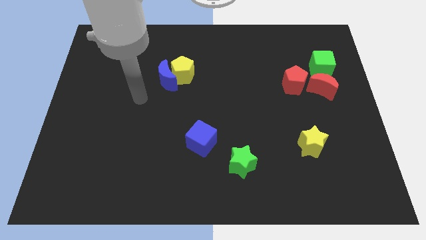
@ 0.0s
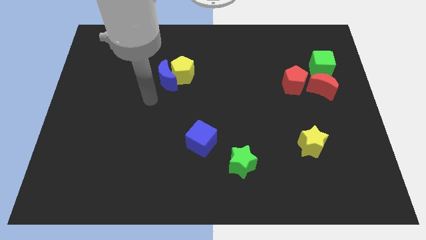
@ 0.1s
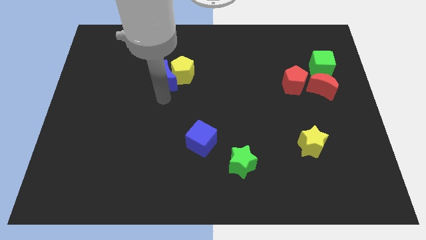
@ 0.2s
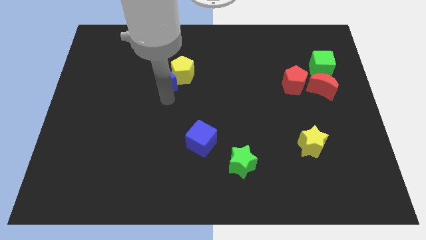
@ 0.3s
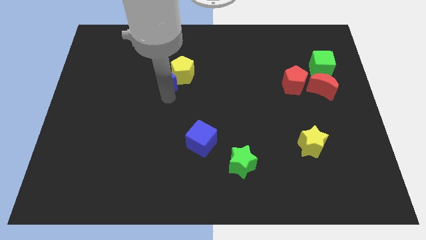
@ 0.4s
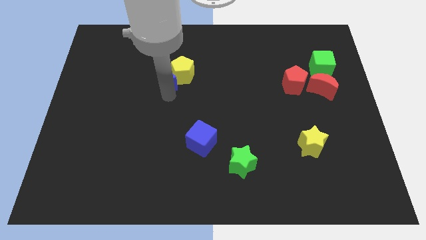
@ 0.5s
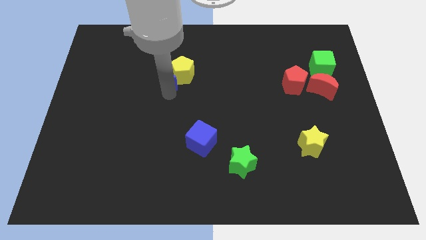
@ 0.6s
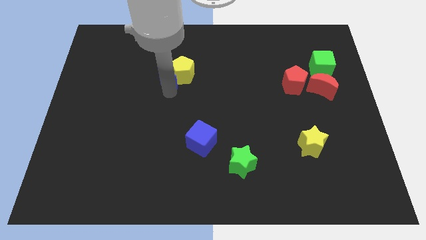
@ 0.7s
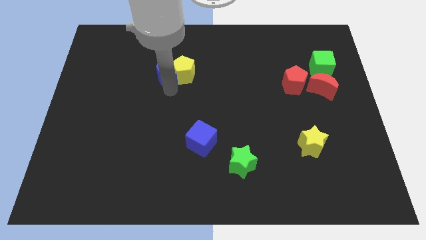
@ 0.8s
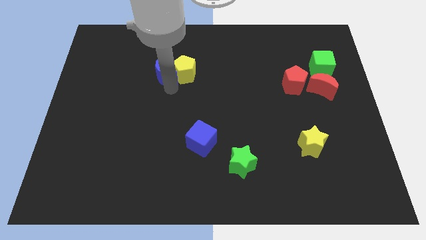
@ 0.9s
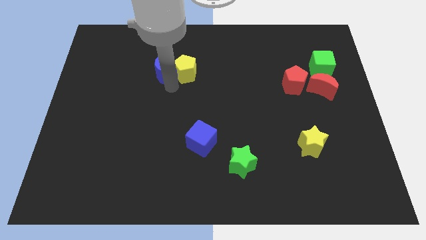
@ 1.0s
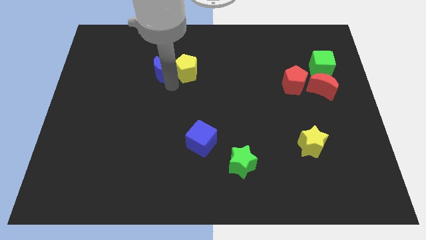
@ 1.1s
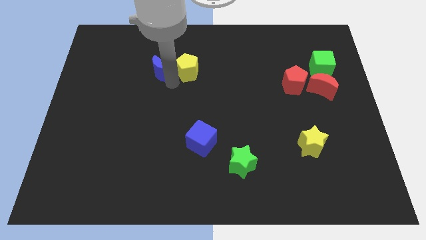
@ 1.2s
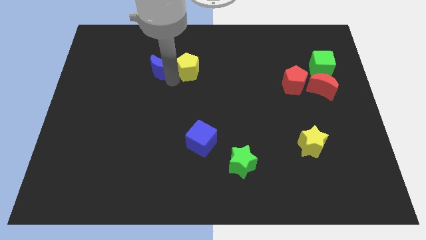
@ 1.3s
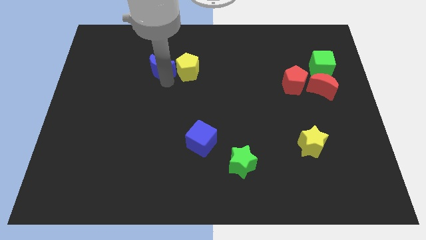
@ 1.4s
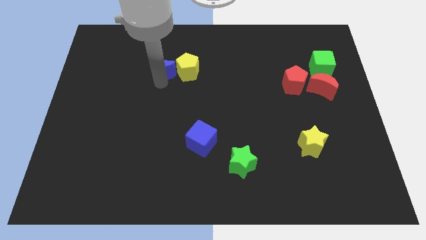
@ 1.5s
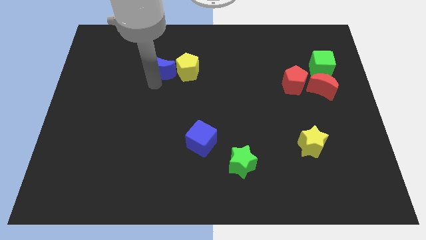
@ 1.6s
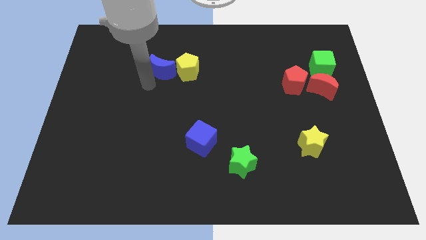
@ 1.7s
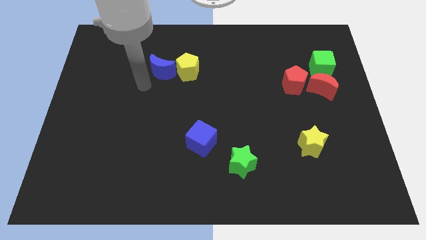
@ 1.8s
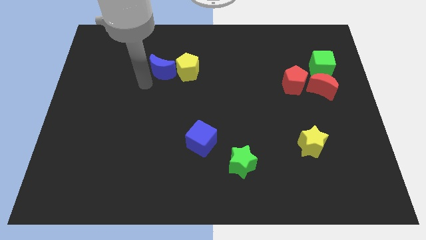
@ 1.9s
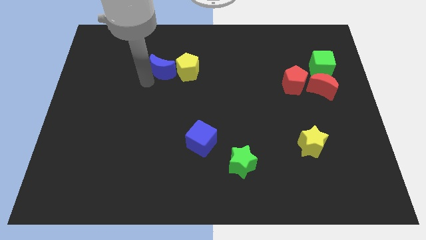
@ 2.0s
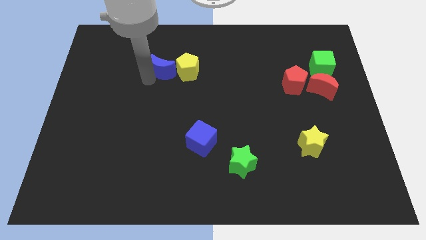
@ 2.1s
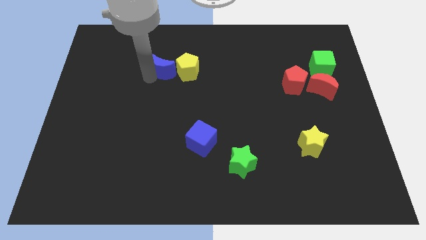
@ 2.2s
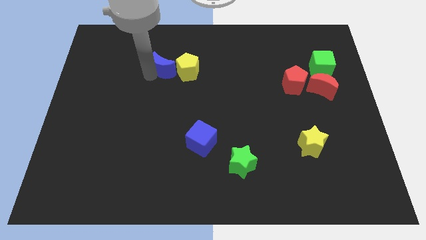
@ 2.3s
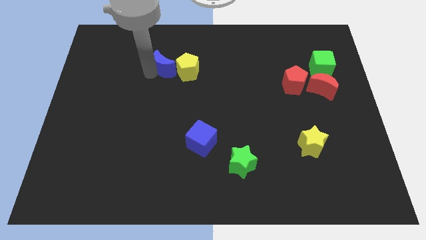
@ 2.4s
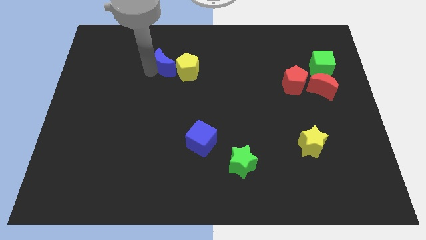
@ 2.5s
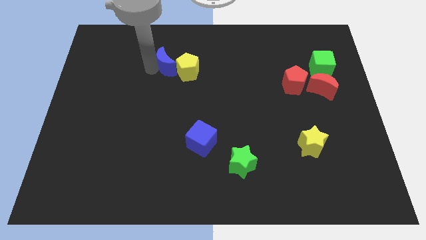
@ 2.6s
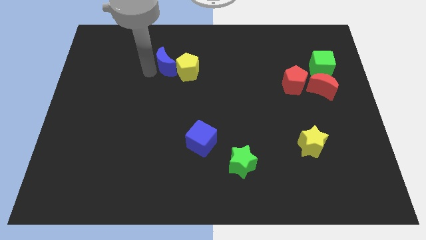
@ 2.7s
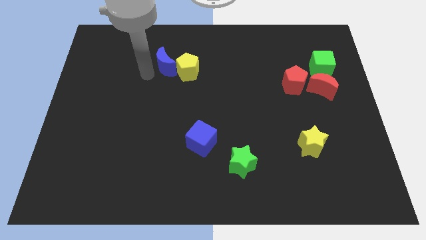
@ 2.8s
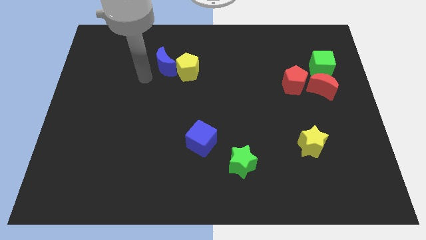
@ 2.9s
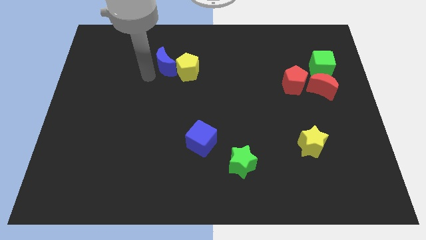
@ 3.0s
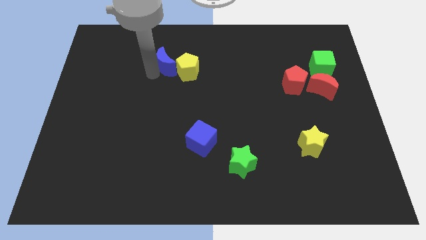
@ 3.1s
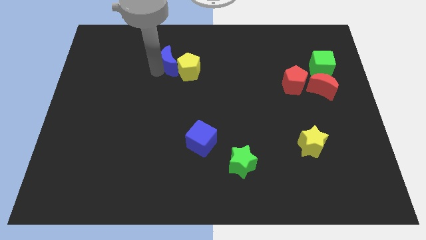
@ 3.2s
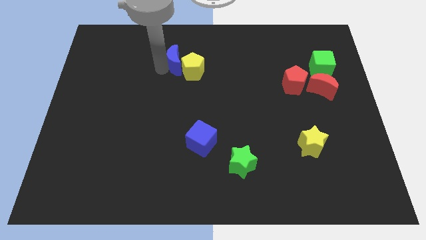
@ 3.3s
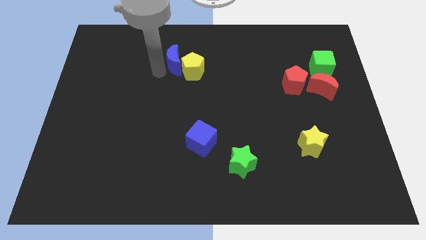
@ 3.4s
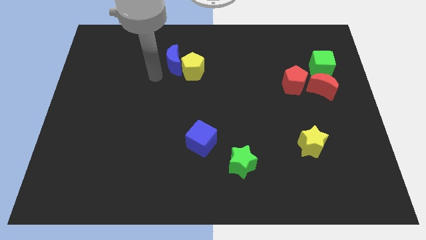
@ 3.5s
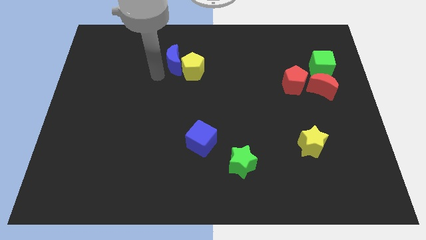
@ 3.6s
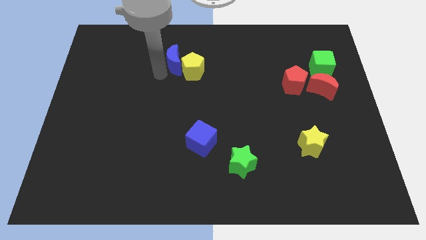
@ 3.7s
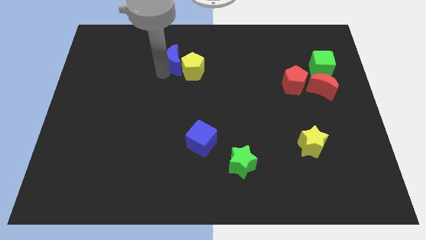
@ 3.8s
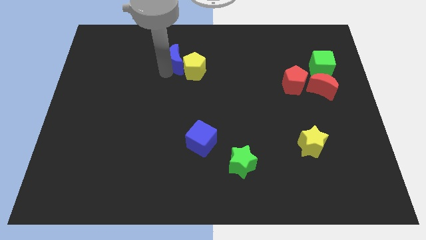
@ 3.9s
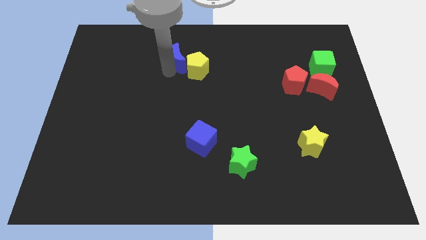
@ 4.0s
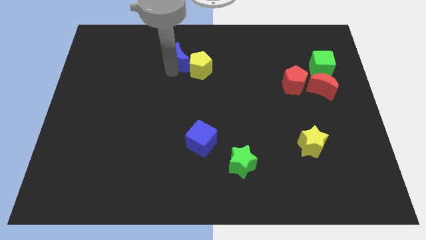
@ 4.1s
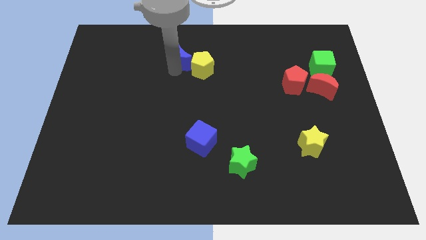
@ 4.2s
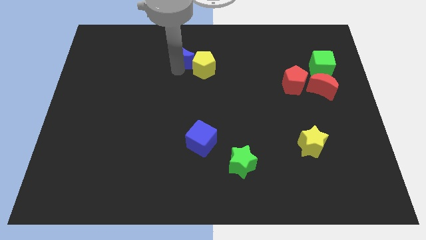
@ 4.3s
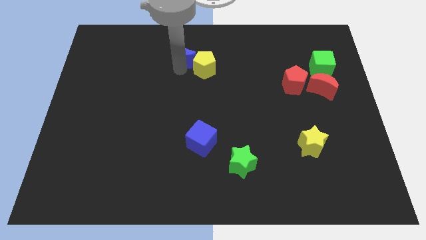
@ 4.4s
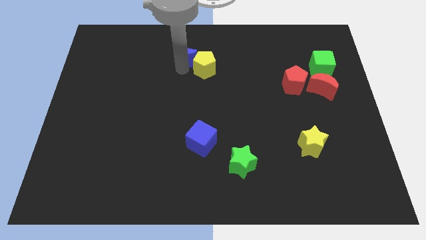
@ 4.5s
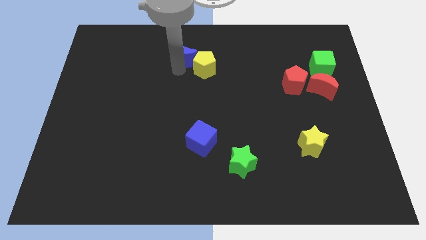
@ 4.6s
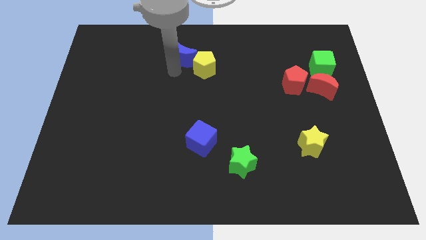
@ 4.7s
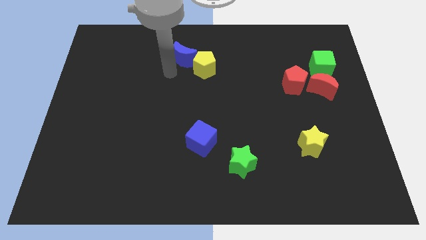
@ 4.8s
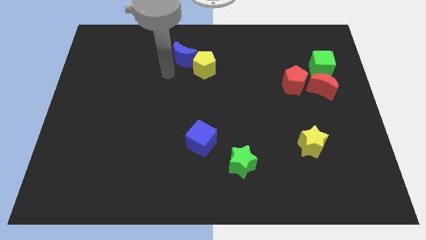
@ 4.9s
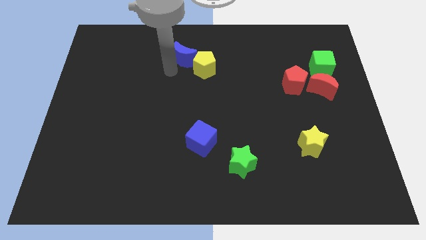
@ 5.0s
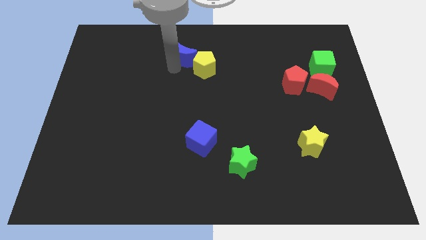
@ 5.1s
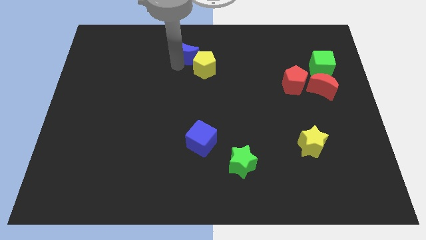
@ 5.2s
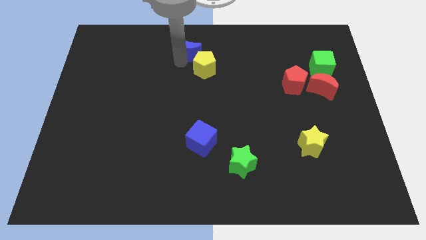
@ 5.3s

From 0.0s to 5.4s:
push the blue moon to the top side
